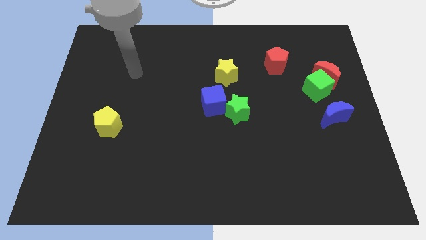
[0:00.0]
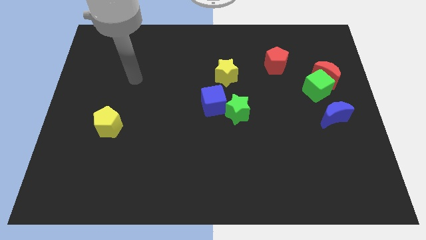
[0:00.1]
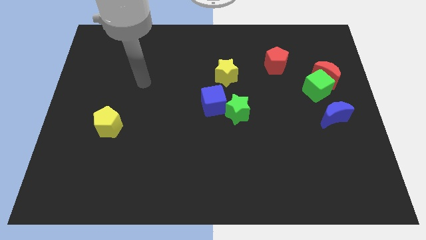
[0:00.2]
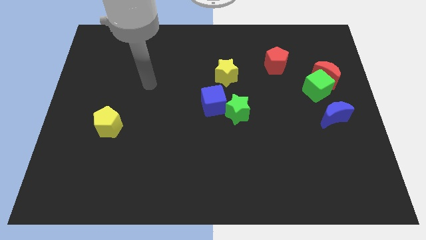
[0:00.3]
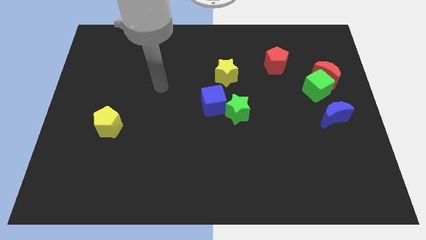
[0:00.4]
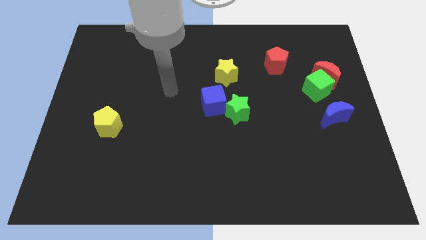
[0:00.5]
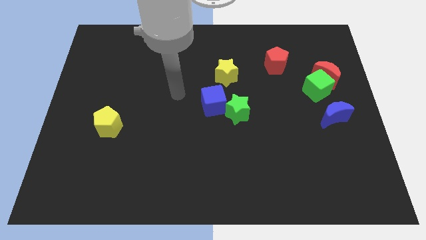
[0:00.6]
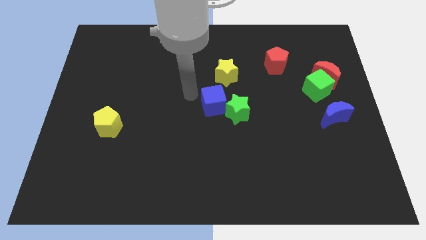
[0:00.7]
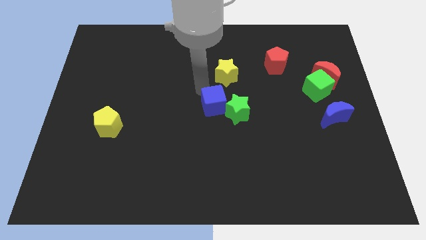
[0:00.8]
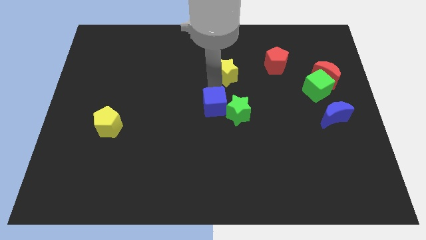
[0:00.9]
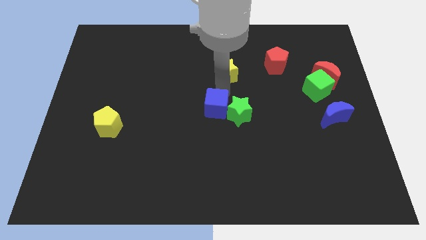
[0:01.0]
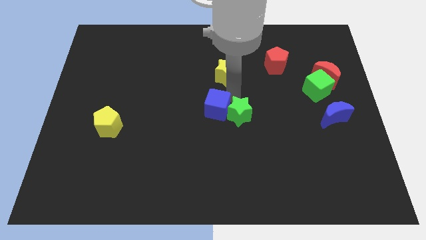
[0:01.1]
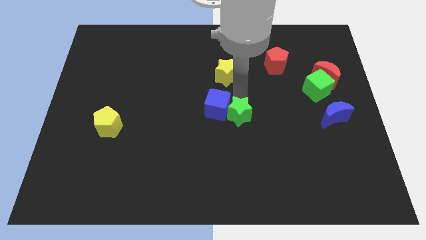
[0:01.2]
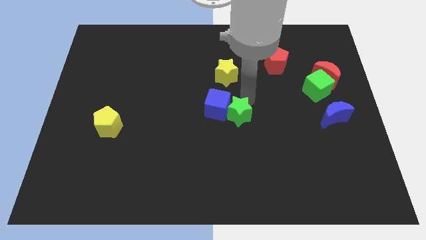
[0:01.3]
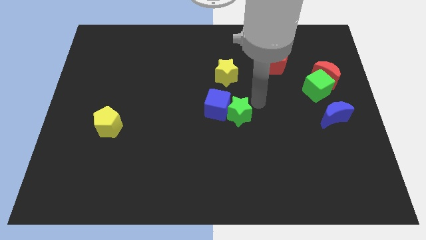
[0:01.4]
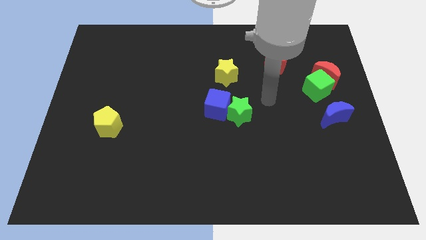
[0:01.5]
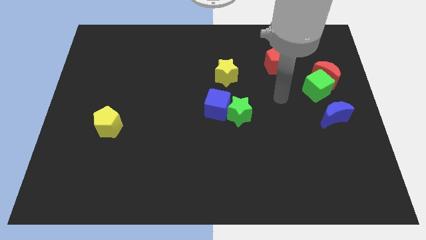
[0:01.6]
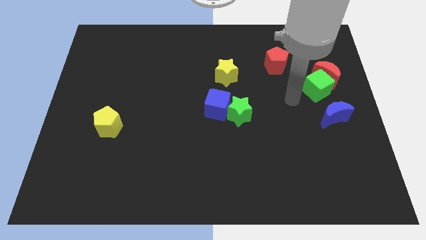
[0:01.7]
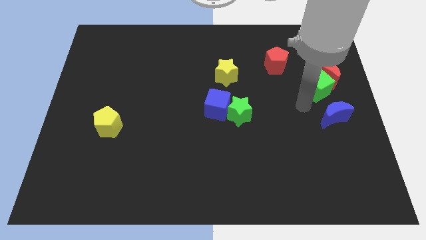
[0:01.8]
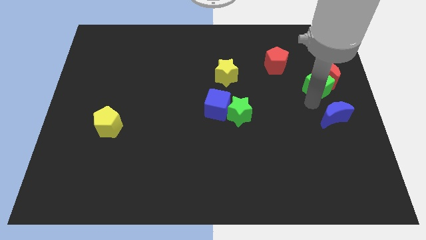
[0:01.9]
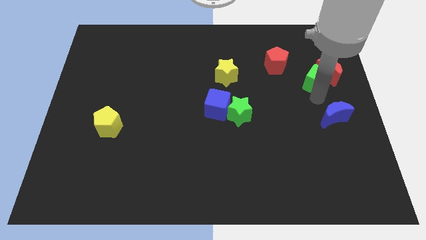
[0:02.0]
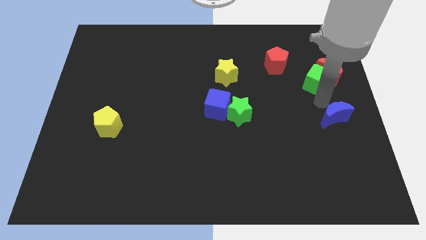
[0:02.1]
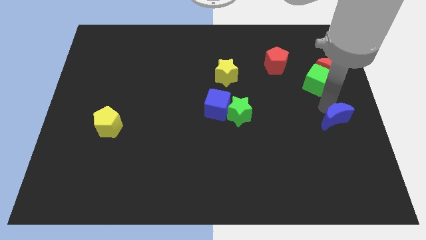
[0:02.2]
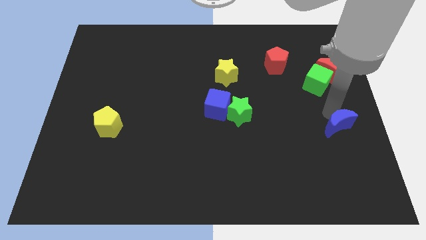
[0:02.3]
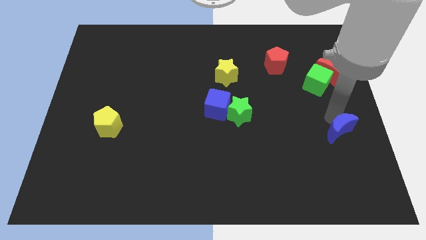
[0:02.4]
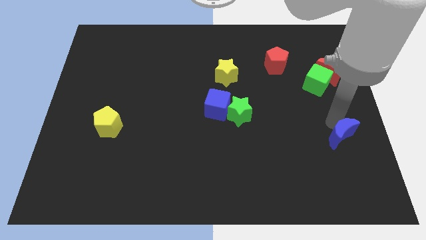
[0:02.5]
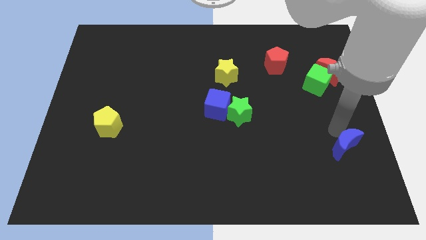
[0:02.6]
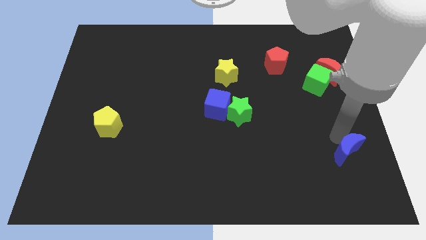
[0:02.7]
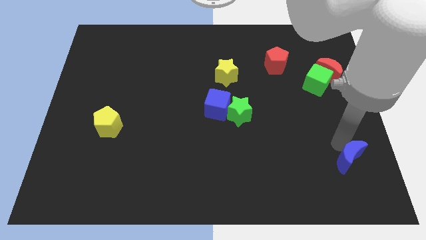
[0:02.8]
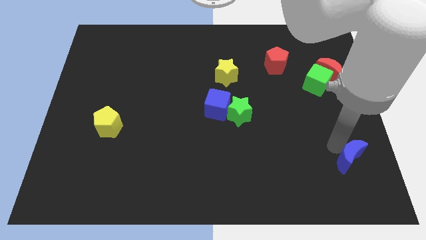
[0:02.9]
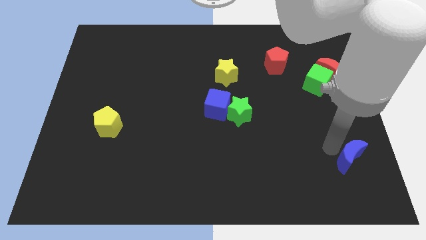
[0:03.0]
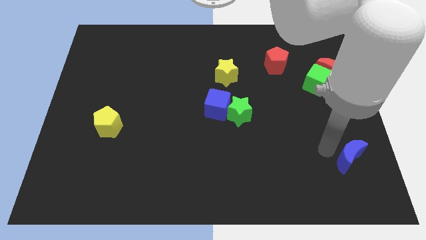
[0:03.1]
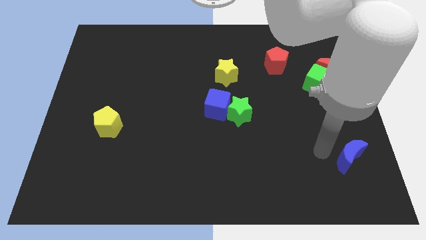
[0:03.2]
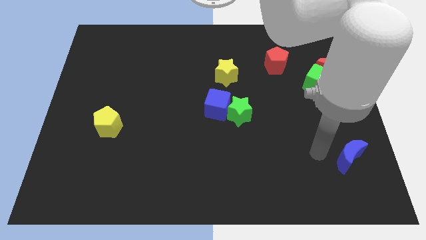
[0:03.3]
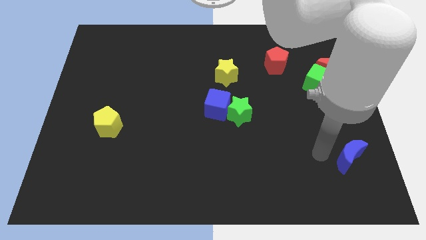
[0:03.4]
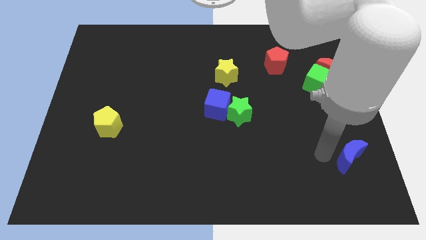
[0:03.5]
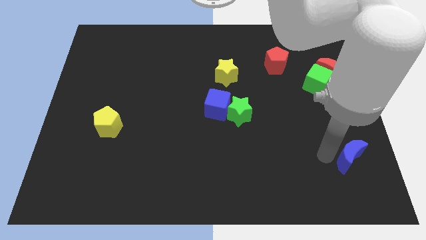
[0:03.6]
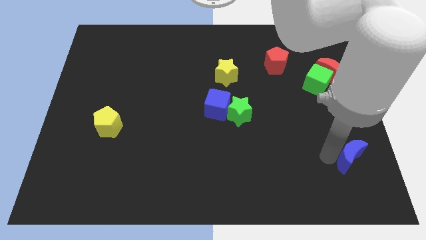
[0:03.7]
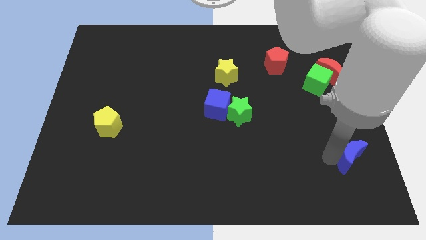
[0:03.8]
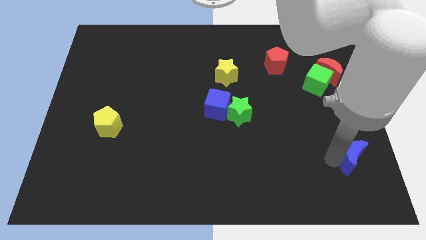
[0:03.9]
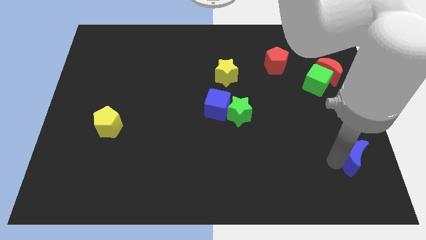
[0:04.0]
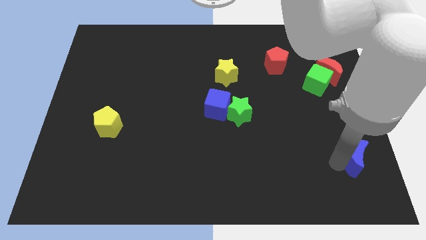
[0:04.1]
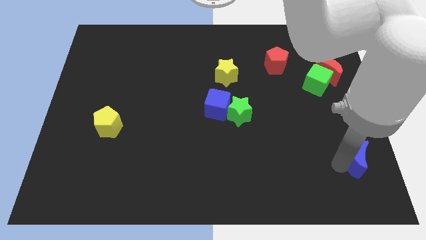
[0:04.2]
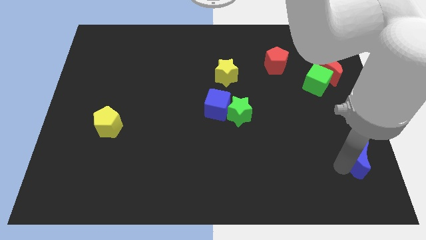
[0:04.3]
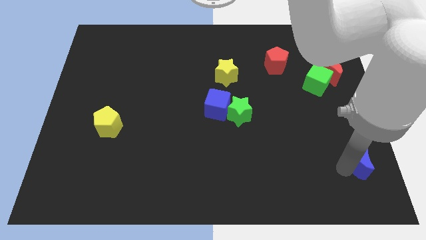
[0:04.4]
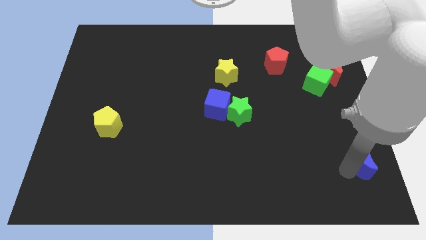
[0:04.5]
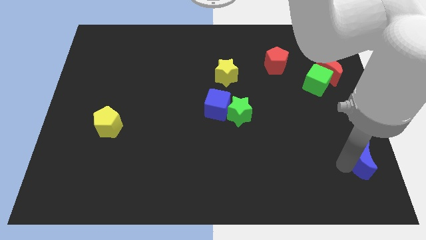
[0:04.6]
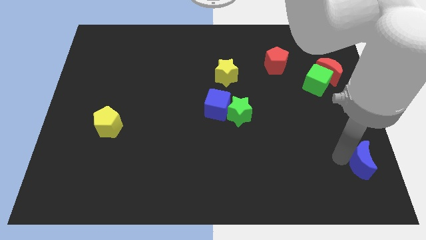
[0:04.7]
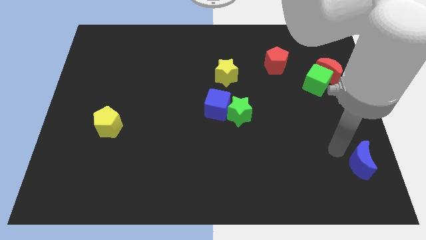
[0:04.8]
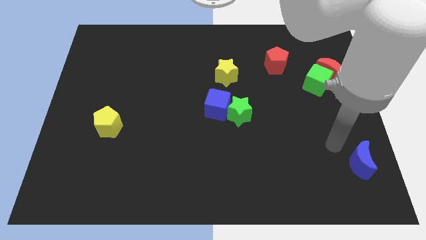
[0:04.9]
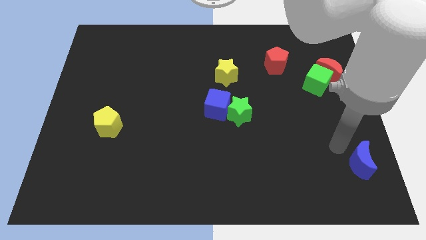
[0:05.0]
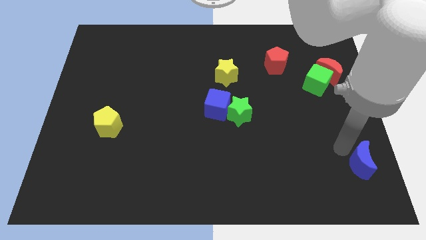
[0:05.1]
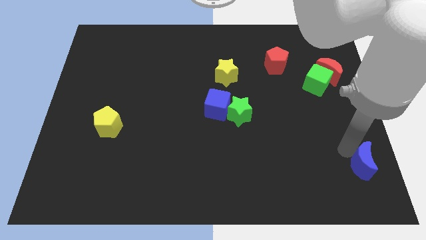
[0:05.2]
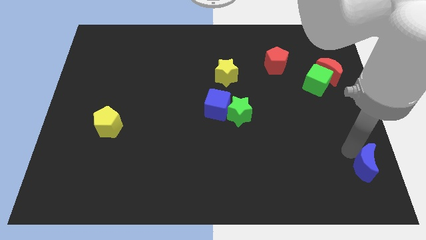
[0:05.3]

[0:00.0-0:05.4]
move the blue moon to the bottom right corner

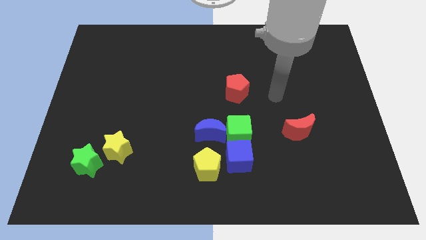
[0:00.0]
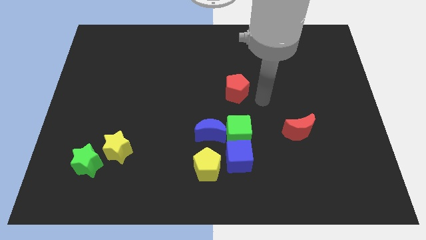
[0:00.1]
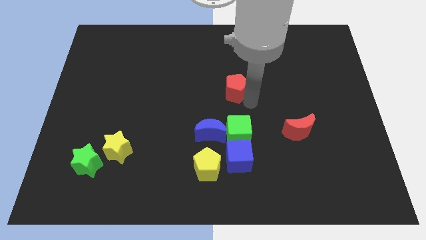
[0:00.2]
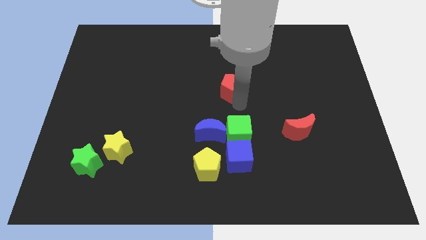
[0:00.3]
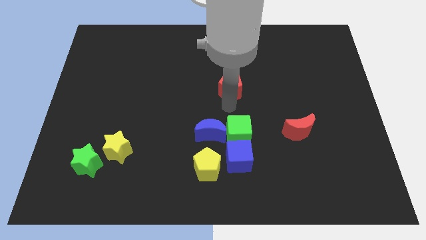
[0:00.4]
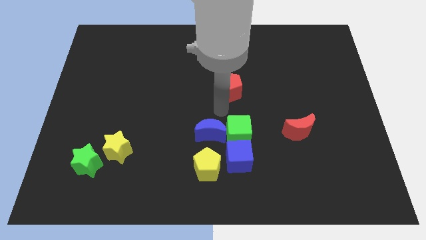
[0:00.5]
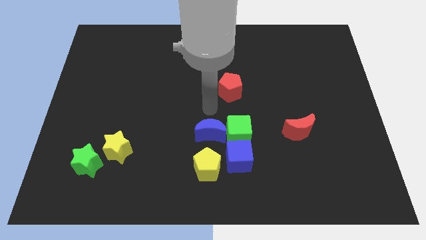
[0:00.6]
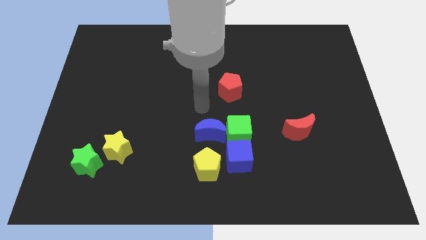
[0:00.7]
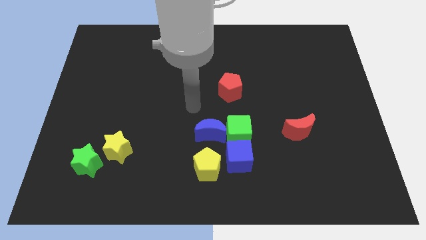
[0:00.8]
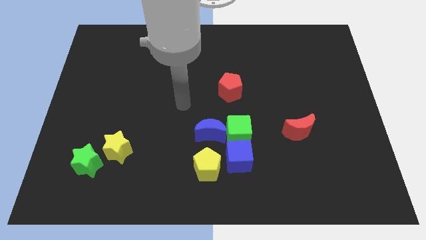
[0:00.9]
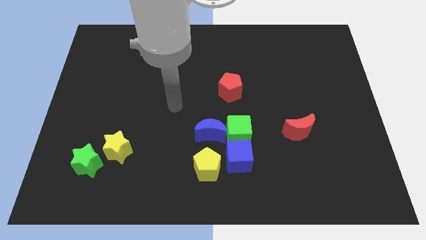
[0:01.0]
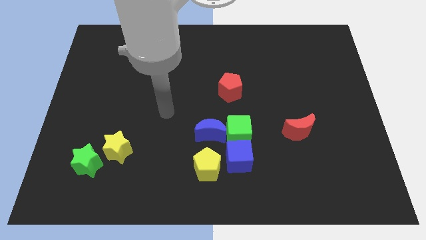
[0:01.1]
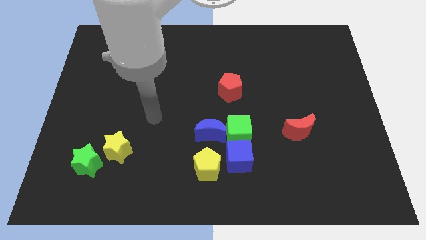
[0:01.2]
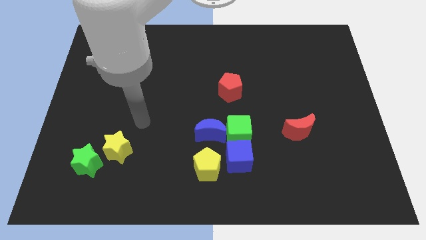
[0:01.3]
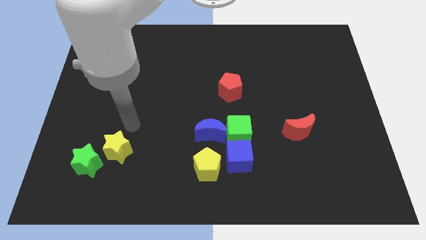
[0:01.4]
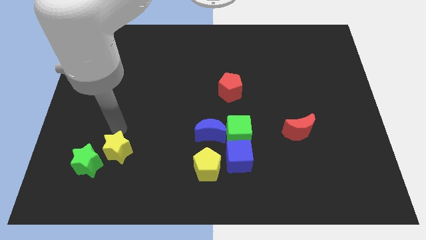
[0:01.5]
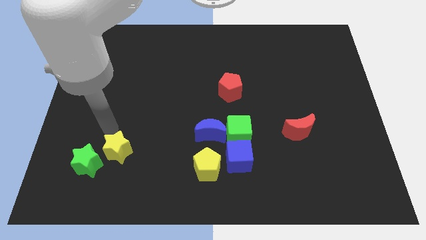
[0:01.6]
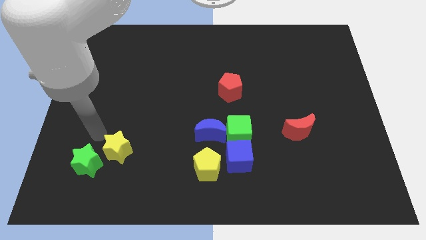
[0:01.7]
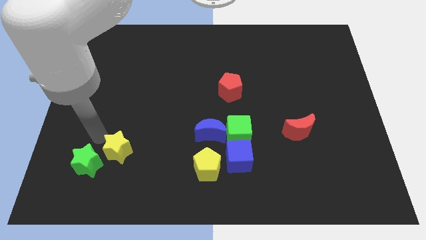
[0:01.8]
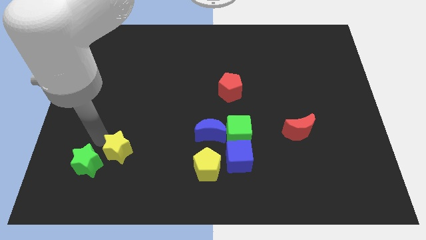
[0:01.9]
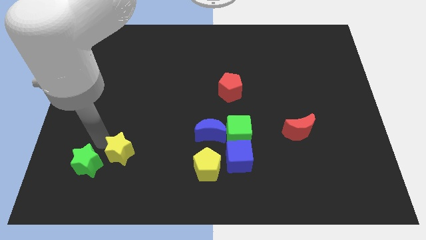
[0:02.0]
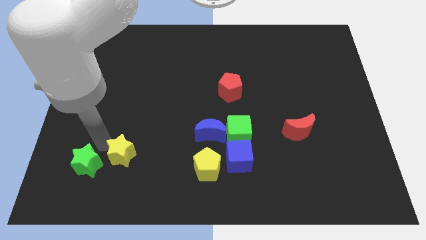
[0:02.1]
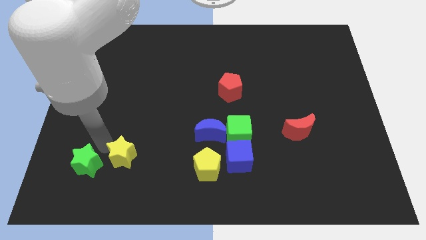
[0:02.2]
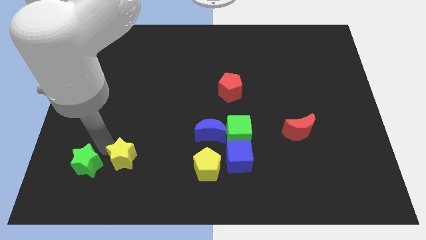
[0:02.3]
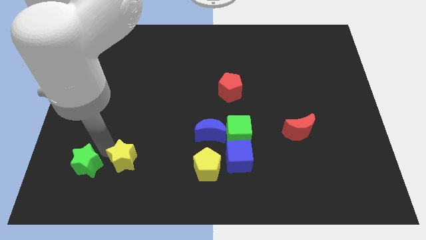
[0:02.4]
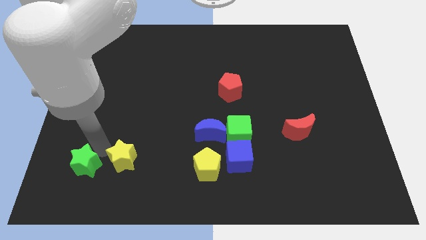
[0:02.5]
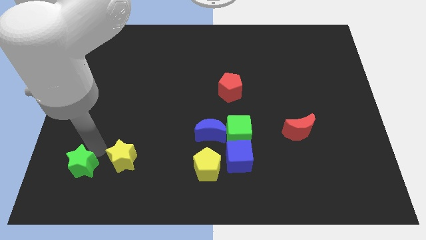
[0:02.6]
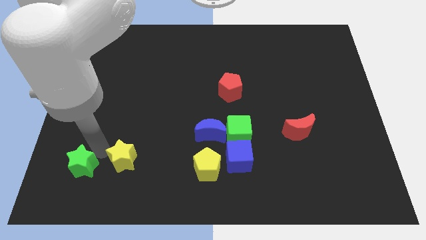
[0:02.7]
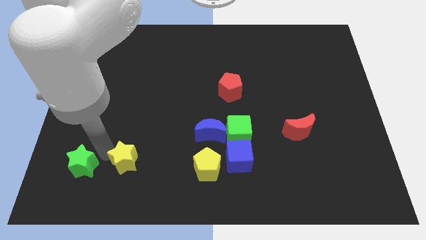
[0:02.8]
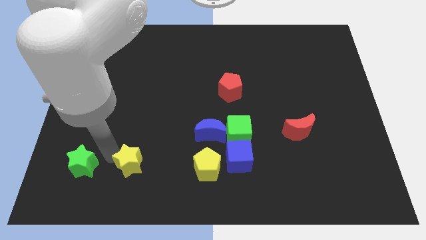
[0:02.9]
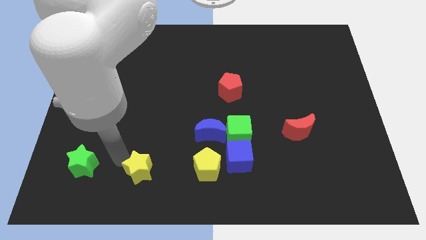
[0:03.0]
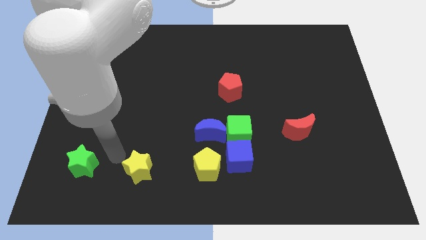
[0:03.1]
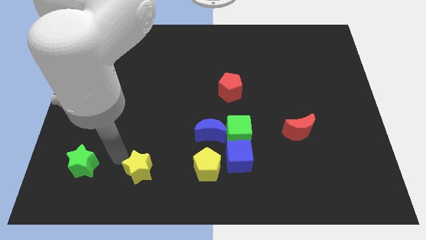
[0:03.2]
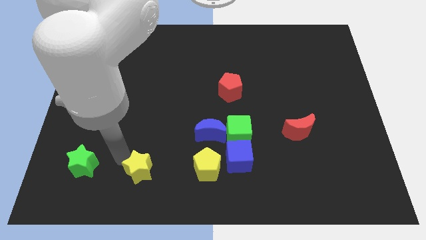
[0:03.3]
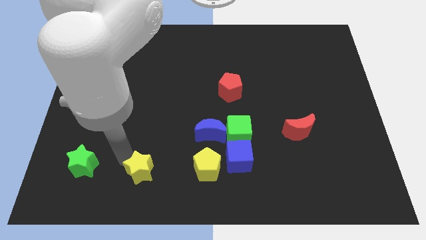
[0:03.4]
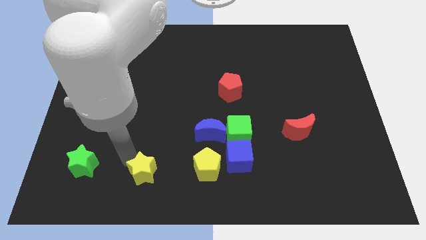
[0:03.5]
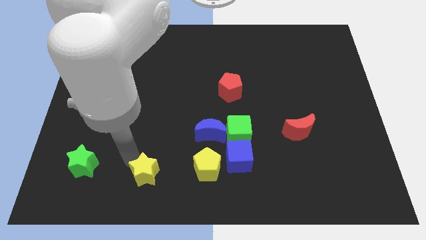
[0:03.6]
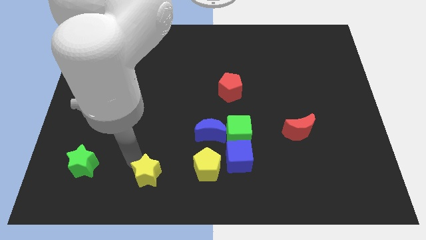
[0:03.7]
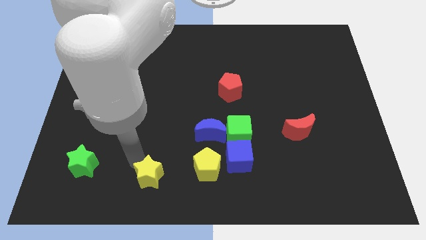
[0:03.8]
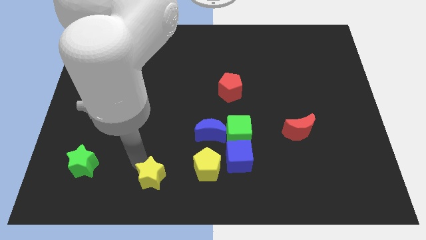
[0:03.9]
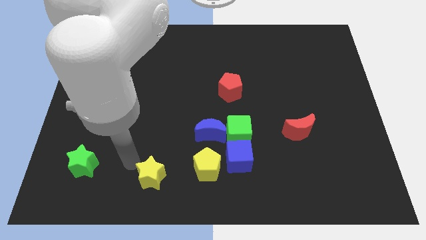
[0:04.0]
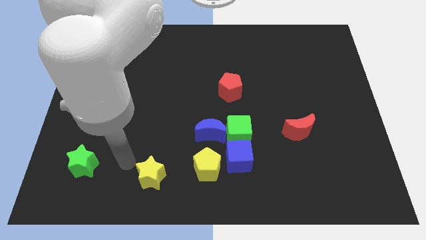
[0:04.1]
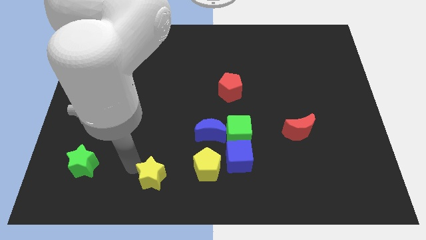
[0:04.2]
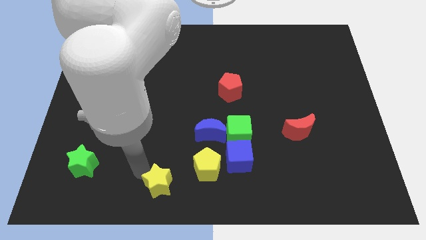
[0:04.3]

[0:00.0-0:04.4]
push the yellow star to the bottom
